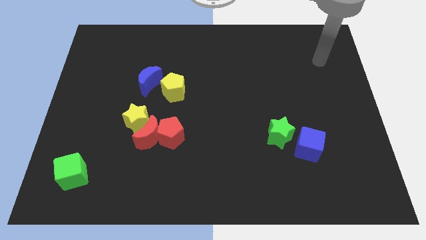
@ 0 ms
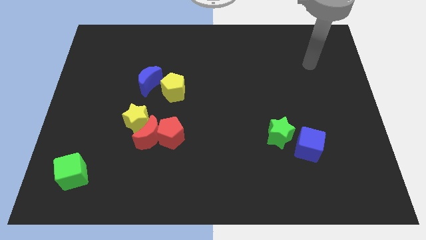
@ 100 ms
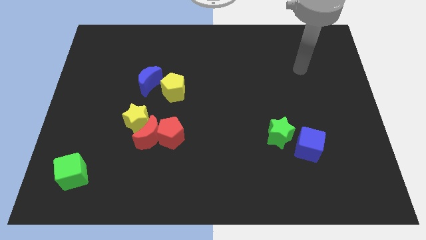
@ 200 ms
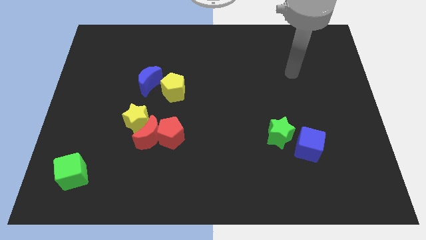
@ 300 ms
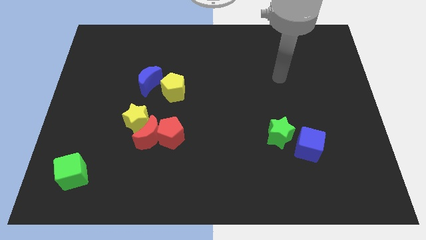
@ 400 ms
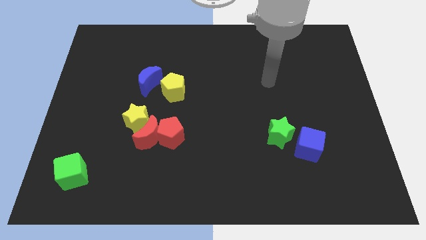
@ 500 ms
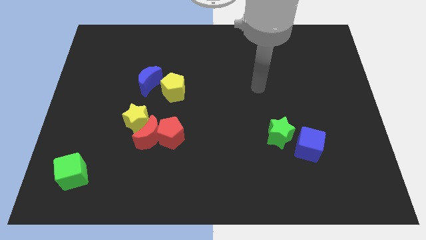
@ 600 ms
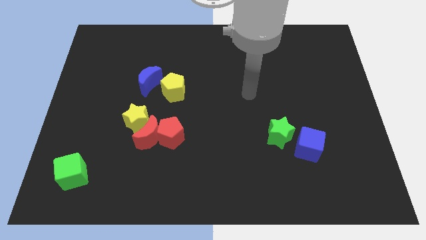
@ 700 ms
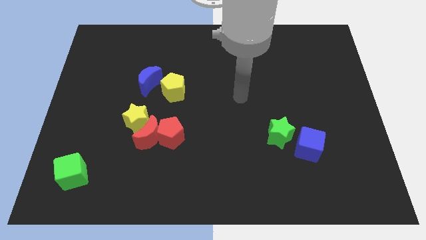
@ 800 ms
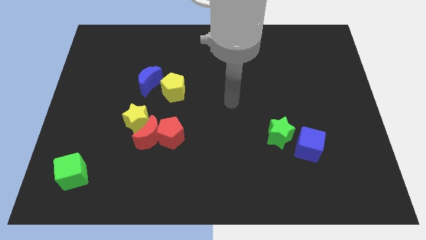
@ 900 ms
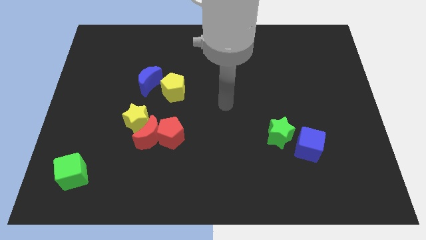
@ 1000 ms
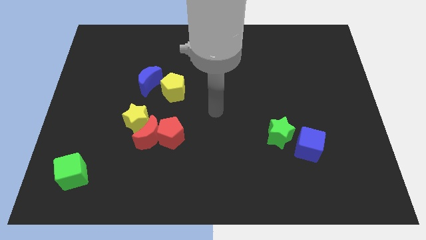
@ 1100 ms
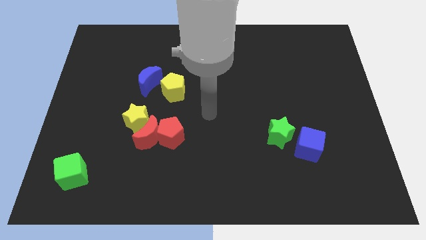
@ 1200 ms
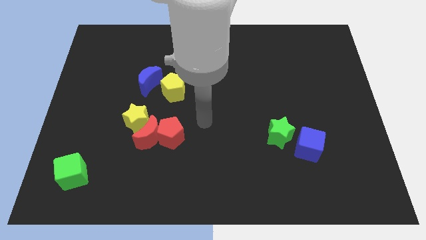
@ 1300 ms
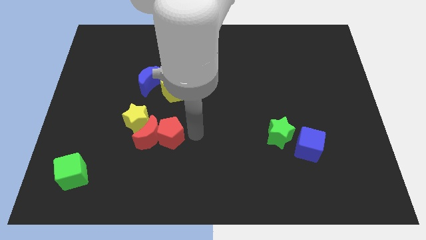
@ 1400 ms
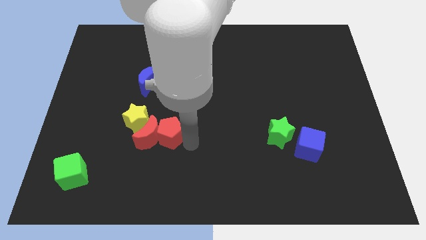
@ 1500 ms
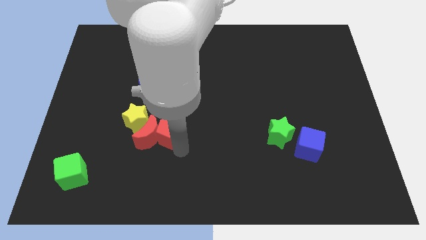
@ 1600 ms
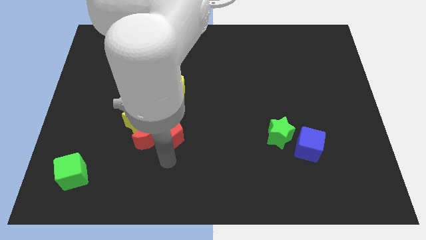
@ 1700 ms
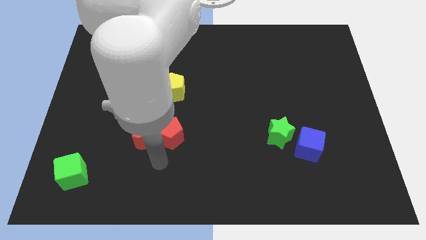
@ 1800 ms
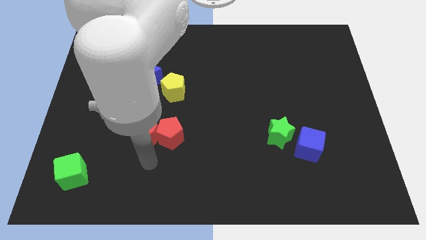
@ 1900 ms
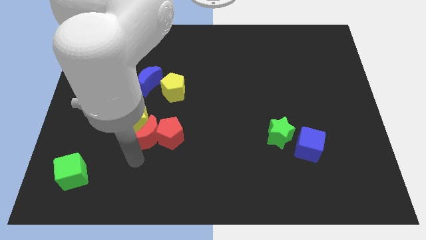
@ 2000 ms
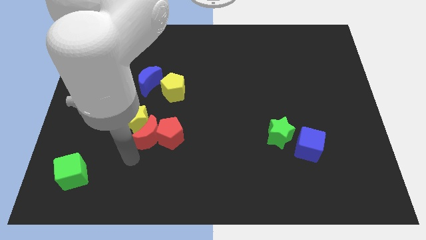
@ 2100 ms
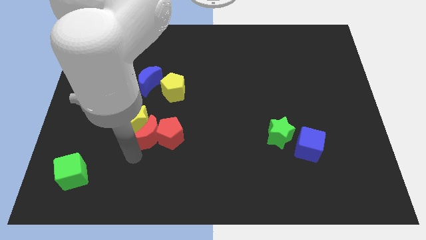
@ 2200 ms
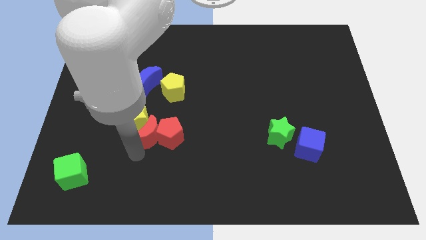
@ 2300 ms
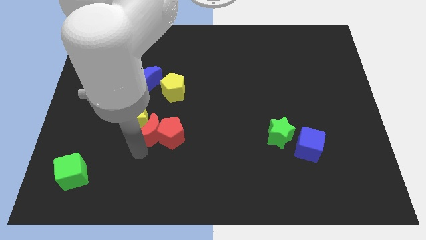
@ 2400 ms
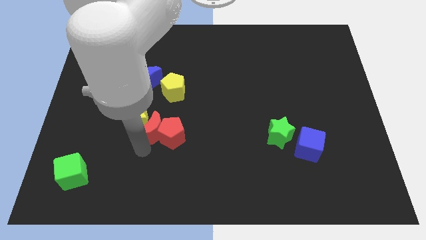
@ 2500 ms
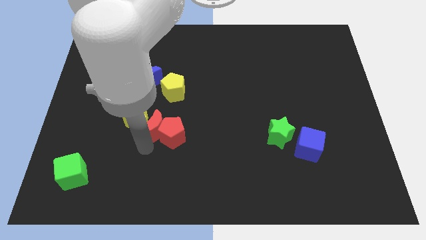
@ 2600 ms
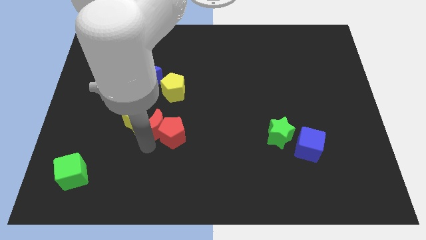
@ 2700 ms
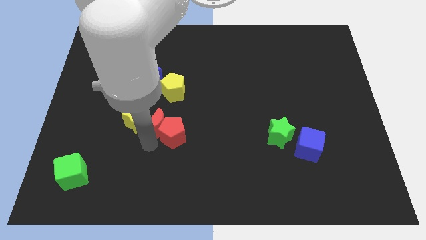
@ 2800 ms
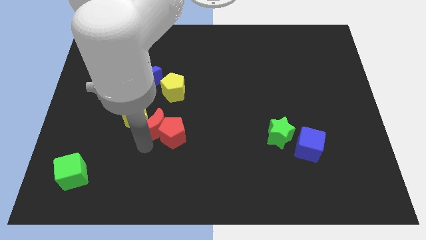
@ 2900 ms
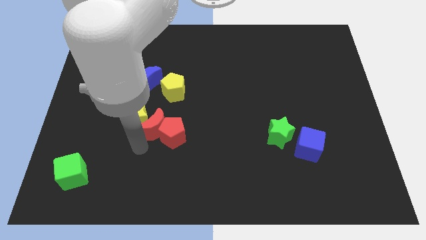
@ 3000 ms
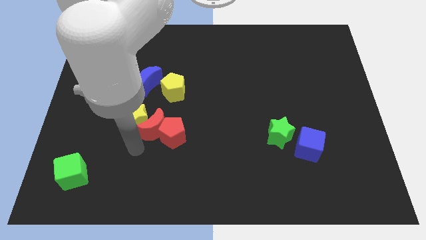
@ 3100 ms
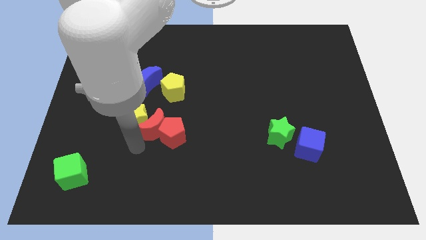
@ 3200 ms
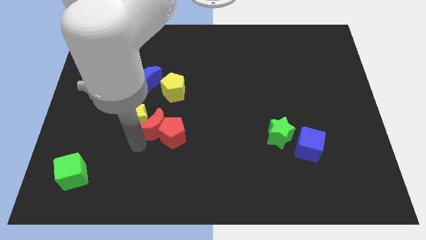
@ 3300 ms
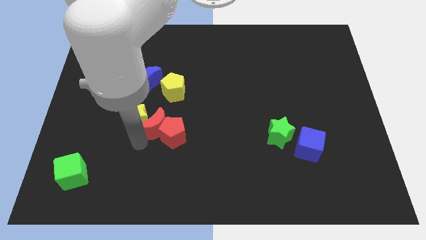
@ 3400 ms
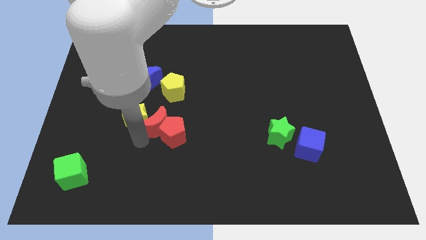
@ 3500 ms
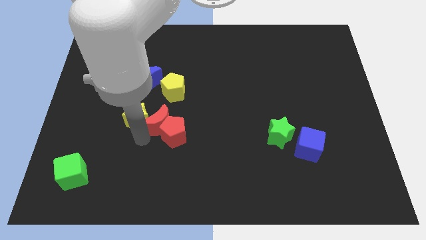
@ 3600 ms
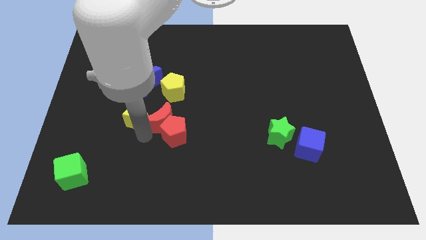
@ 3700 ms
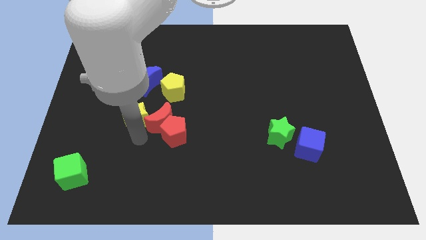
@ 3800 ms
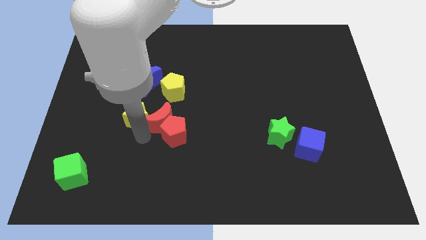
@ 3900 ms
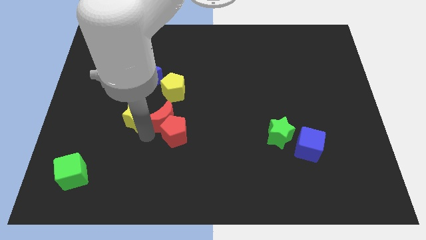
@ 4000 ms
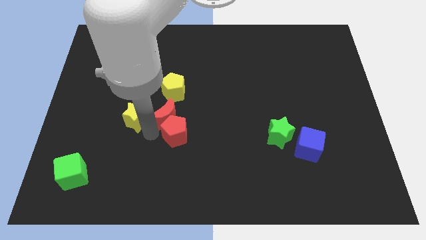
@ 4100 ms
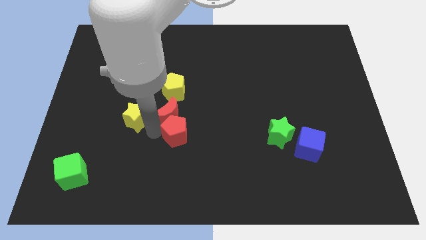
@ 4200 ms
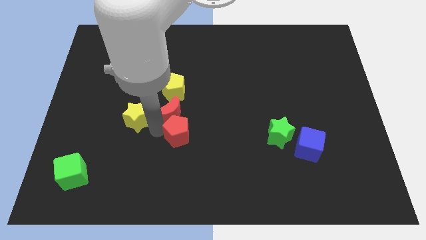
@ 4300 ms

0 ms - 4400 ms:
slide the red moon up and then to the right slightly

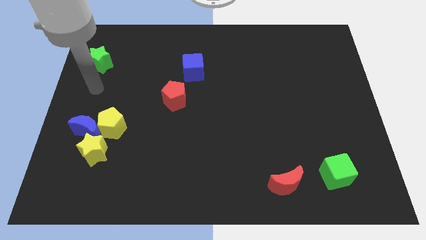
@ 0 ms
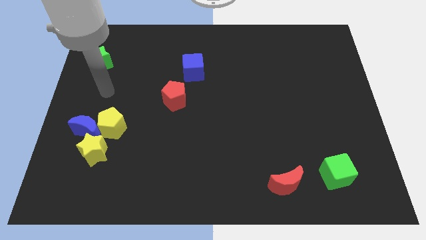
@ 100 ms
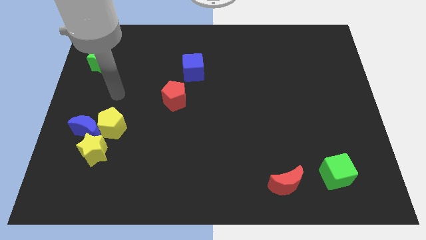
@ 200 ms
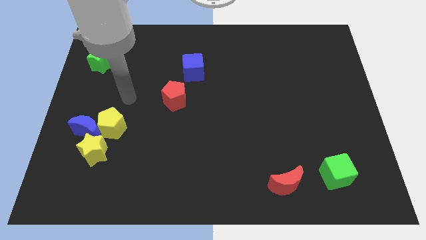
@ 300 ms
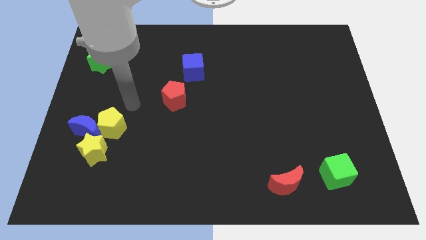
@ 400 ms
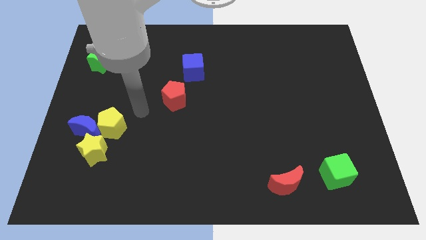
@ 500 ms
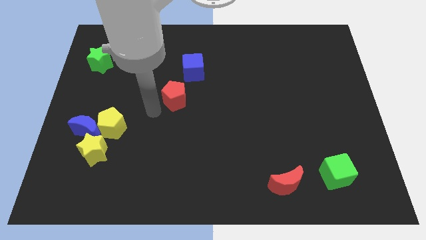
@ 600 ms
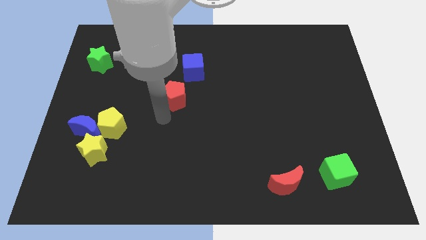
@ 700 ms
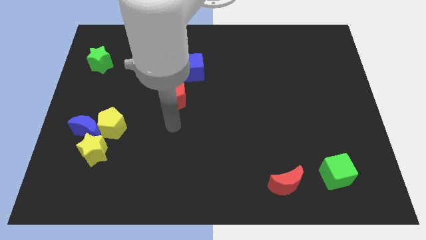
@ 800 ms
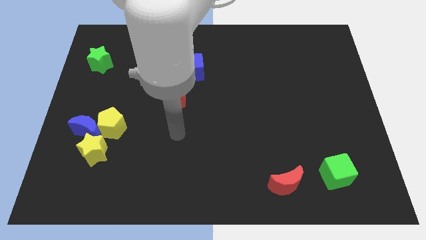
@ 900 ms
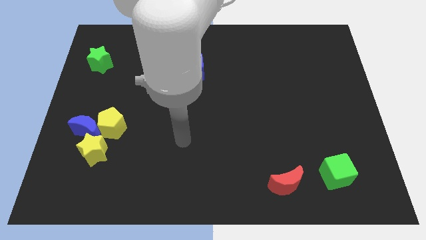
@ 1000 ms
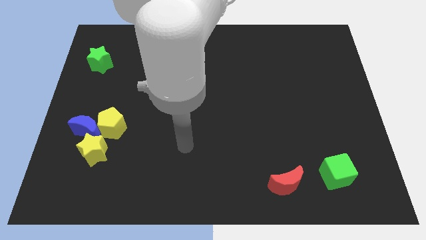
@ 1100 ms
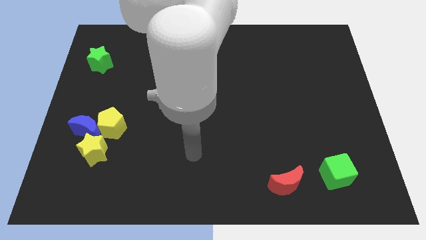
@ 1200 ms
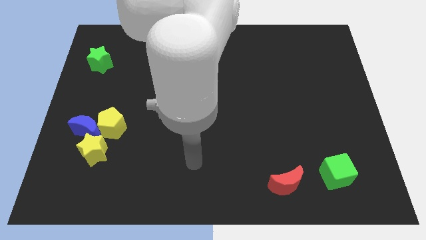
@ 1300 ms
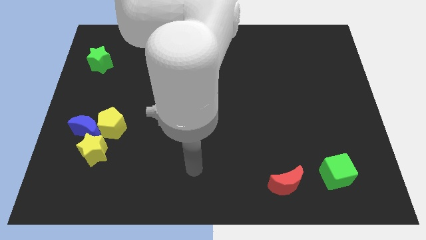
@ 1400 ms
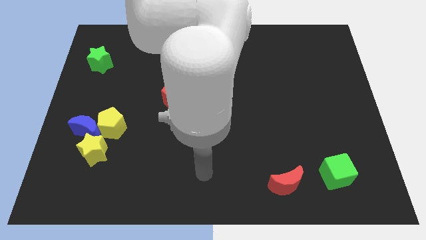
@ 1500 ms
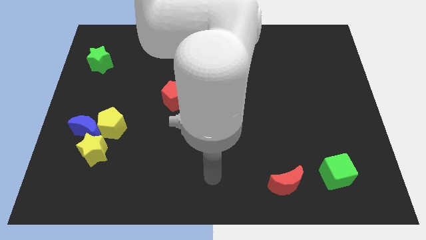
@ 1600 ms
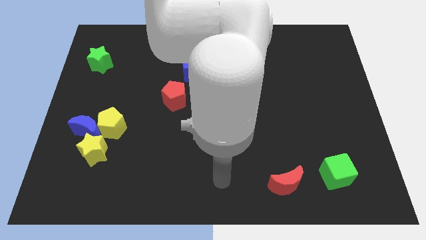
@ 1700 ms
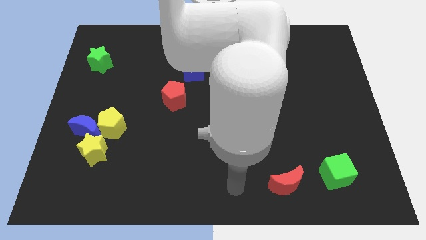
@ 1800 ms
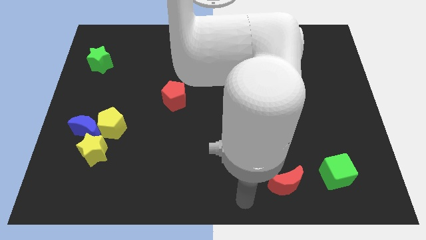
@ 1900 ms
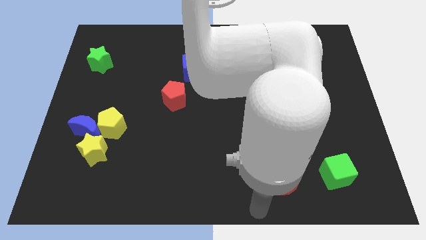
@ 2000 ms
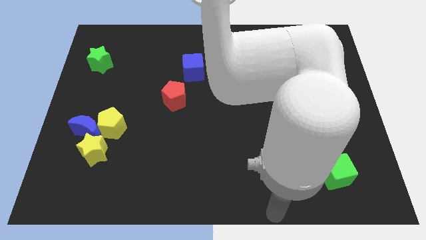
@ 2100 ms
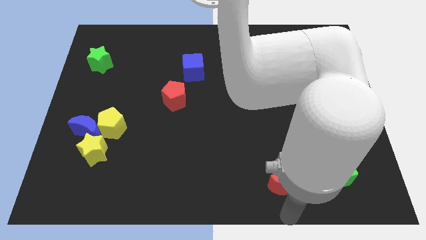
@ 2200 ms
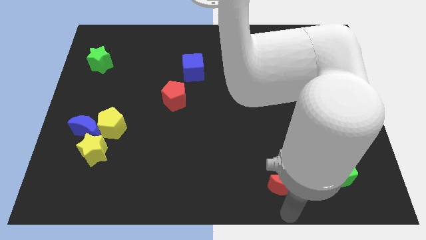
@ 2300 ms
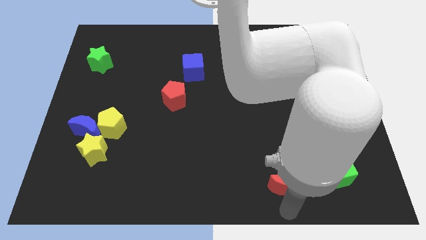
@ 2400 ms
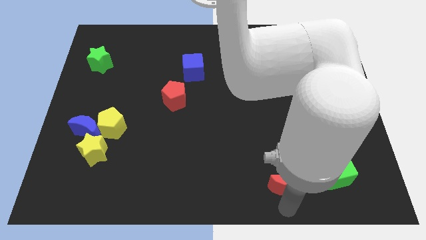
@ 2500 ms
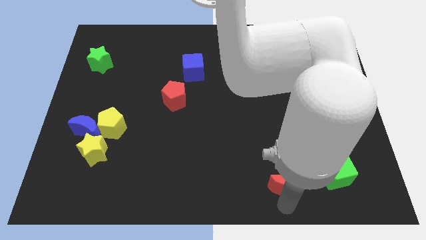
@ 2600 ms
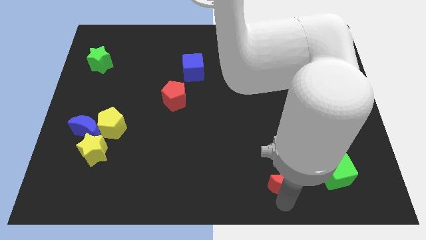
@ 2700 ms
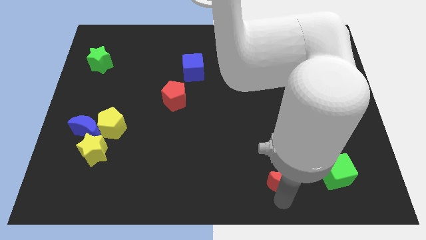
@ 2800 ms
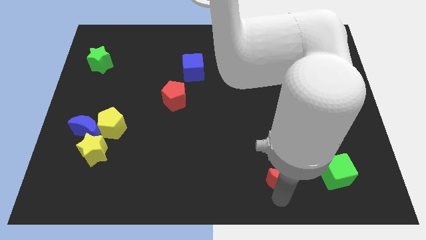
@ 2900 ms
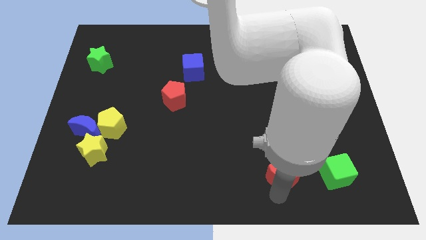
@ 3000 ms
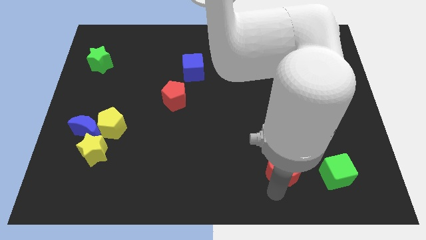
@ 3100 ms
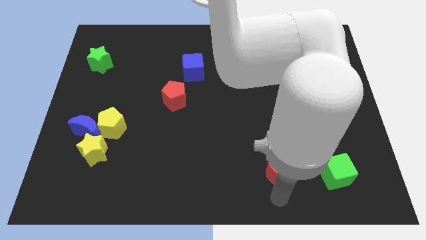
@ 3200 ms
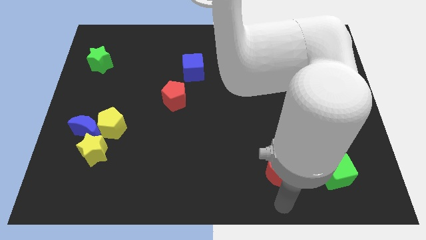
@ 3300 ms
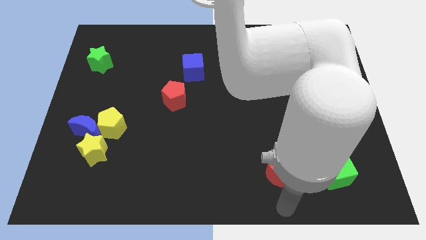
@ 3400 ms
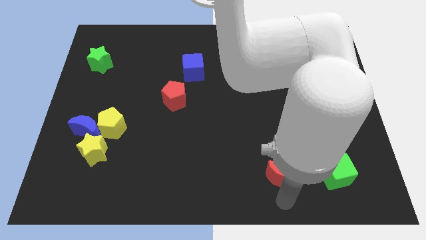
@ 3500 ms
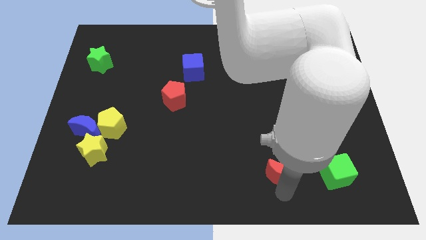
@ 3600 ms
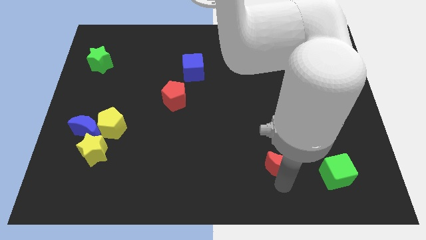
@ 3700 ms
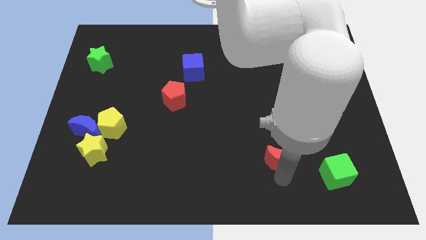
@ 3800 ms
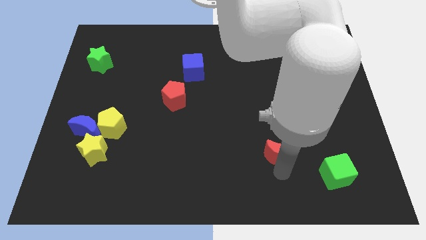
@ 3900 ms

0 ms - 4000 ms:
slide the red moon somewhat up
